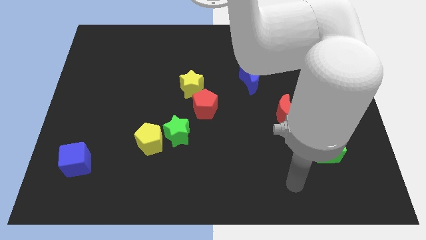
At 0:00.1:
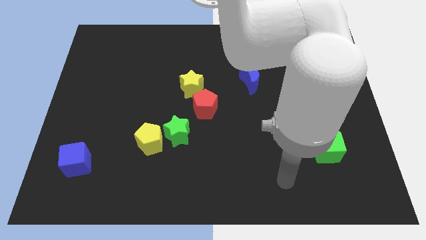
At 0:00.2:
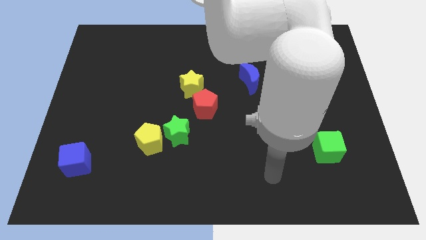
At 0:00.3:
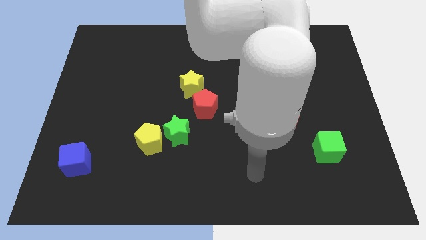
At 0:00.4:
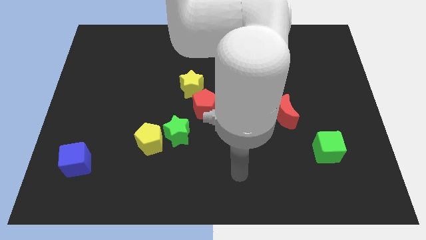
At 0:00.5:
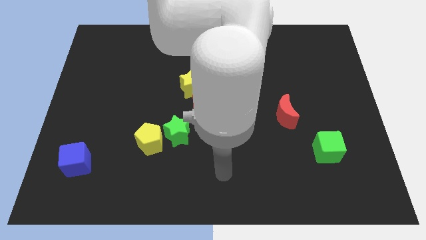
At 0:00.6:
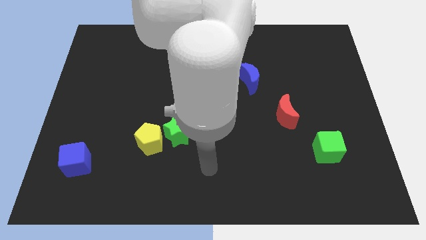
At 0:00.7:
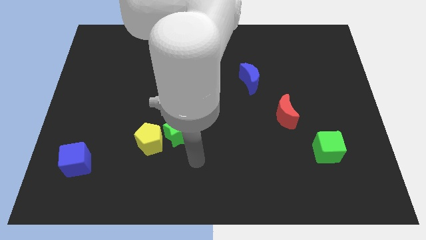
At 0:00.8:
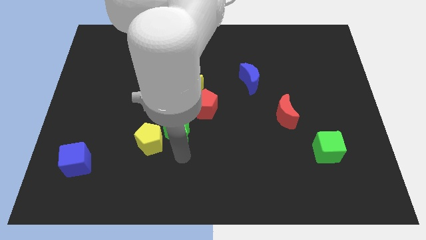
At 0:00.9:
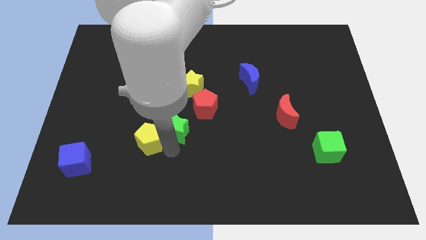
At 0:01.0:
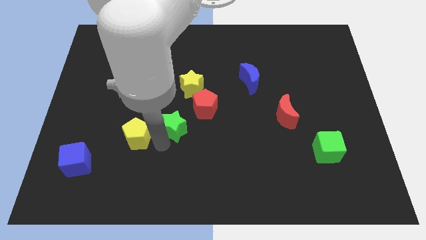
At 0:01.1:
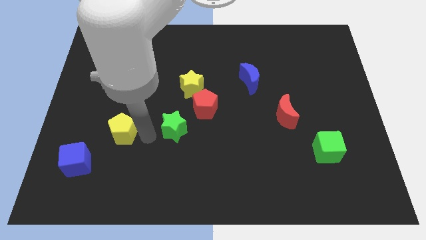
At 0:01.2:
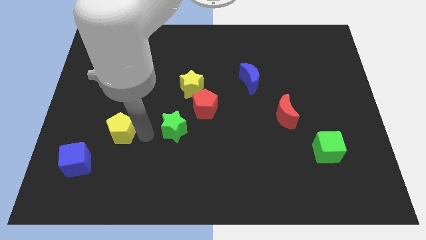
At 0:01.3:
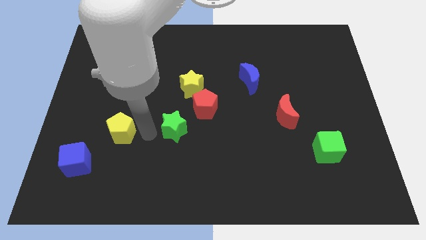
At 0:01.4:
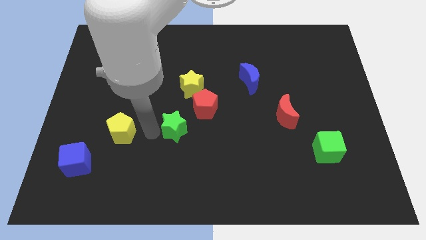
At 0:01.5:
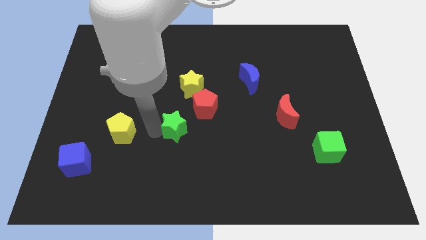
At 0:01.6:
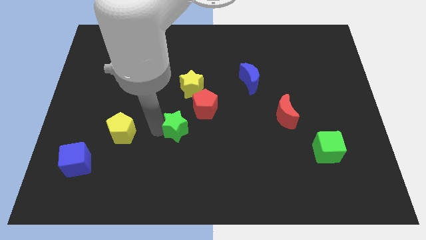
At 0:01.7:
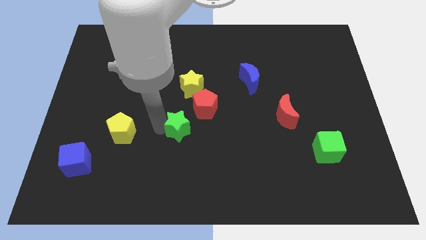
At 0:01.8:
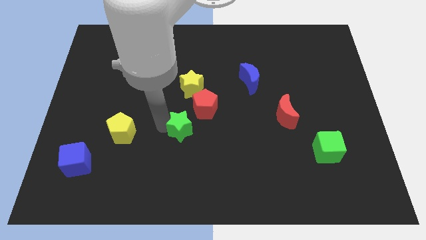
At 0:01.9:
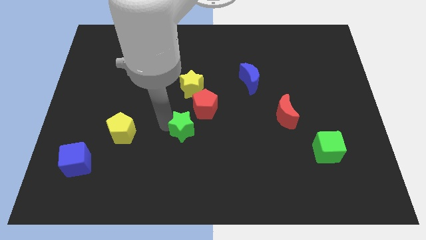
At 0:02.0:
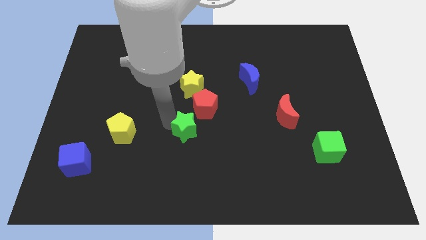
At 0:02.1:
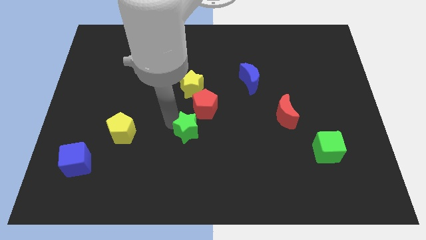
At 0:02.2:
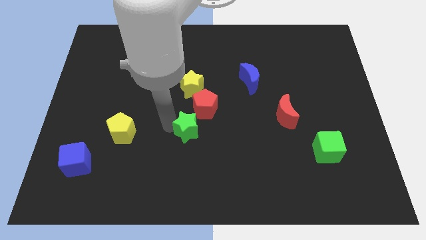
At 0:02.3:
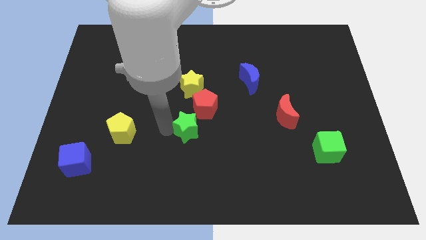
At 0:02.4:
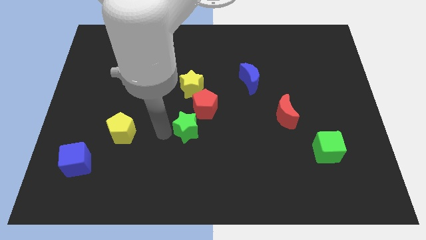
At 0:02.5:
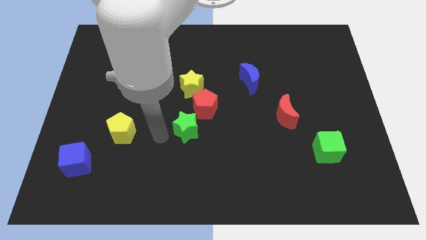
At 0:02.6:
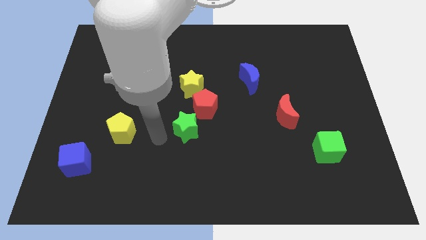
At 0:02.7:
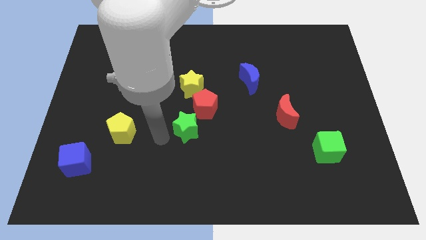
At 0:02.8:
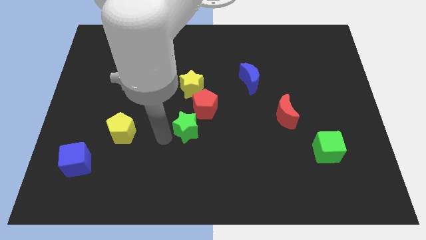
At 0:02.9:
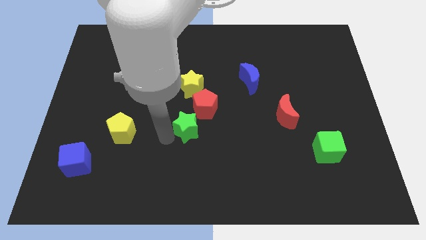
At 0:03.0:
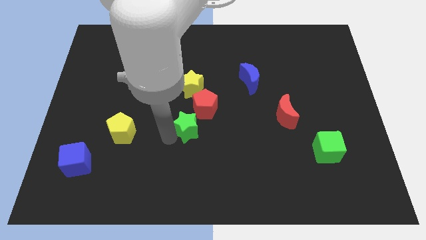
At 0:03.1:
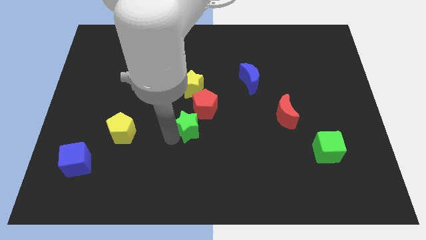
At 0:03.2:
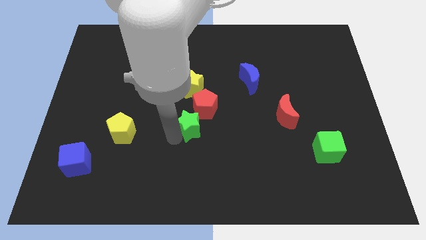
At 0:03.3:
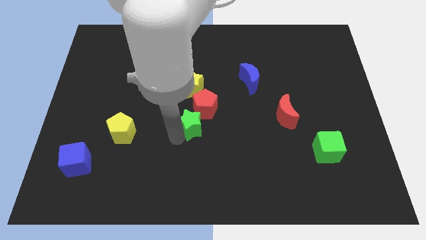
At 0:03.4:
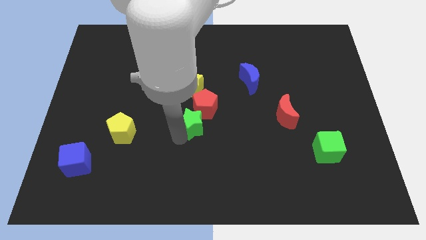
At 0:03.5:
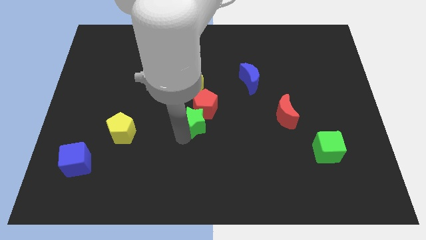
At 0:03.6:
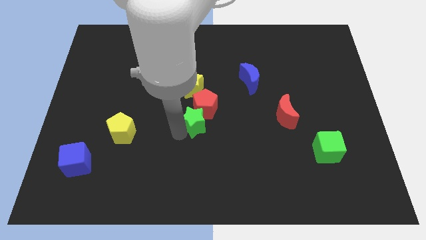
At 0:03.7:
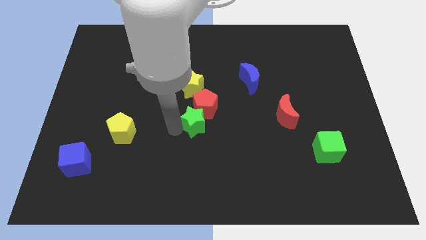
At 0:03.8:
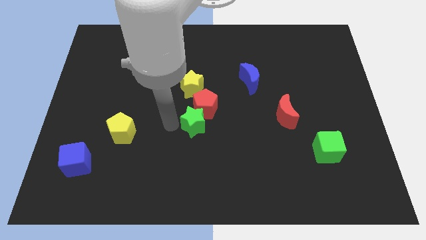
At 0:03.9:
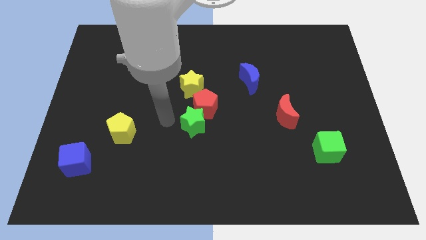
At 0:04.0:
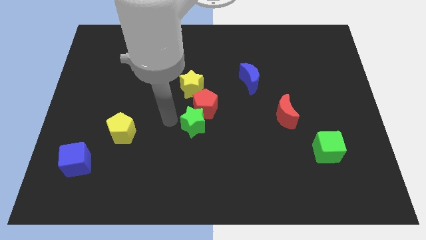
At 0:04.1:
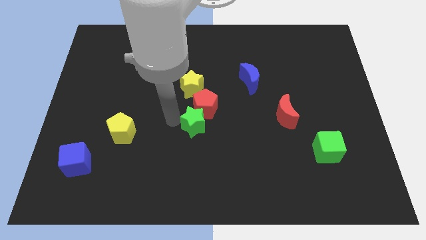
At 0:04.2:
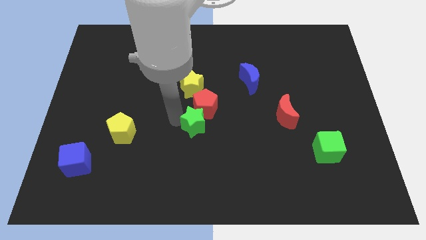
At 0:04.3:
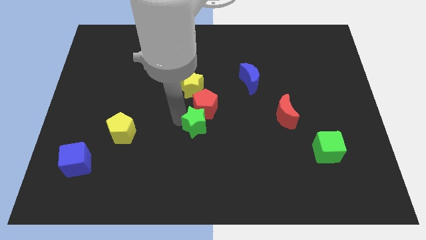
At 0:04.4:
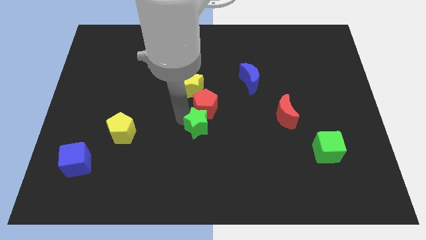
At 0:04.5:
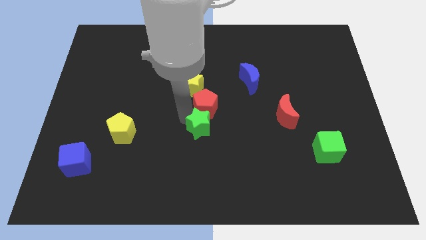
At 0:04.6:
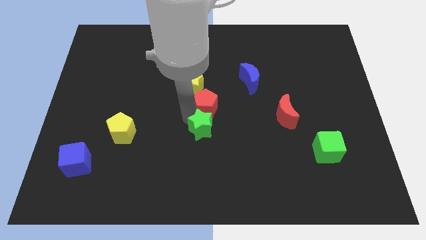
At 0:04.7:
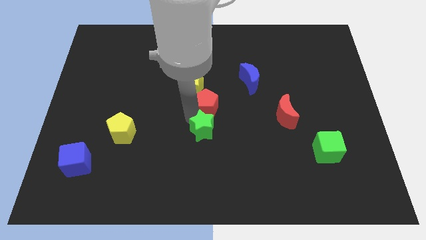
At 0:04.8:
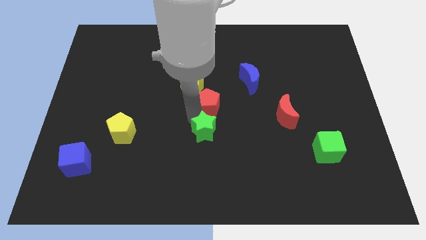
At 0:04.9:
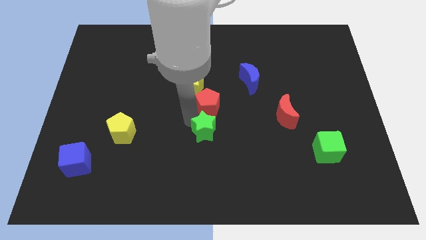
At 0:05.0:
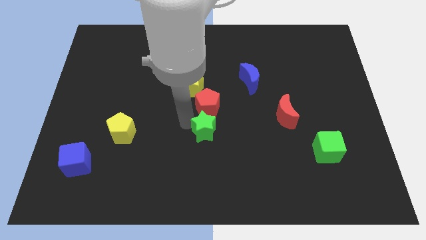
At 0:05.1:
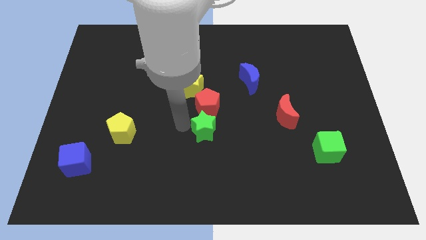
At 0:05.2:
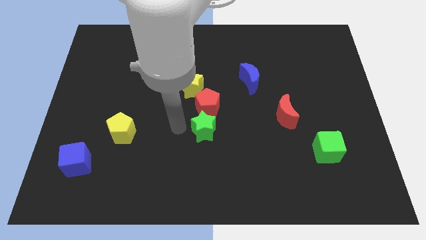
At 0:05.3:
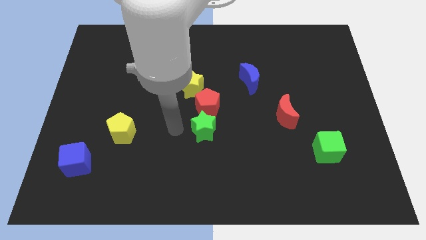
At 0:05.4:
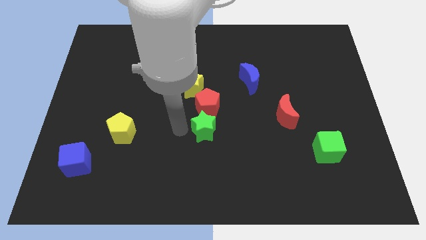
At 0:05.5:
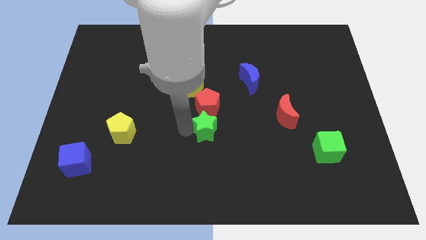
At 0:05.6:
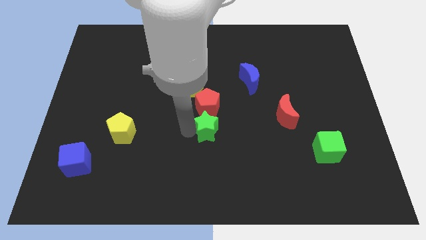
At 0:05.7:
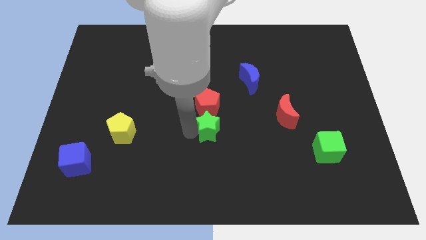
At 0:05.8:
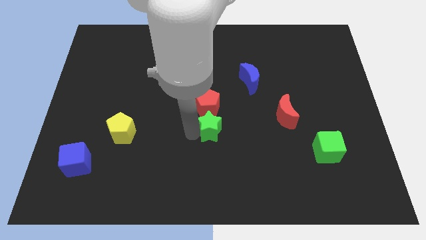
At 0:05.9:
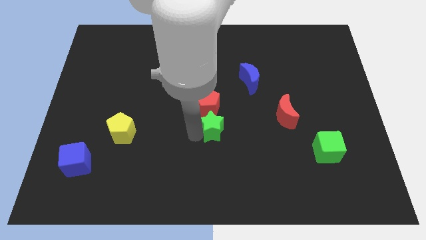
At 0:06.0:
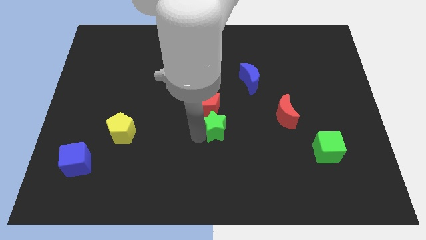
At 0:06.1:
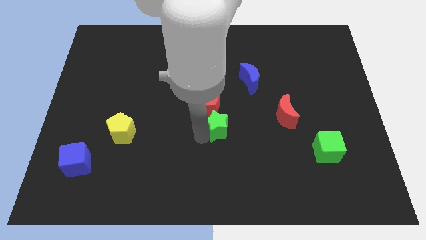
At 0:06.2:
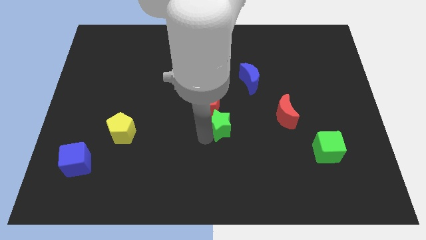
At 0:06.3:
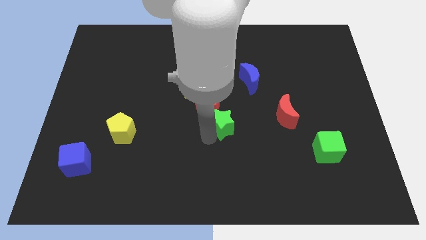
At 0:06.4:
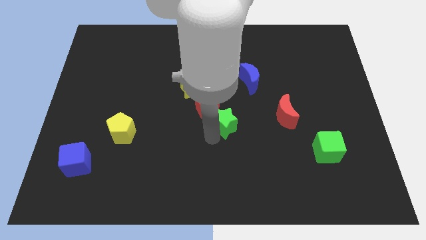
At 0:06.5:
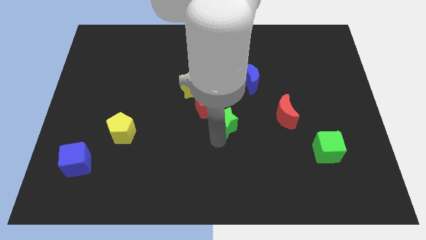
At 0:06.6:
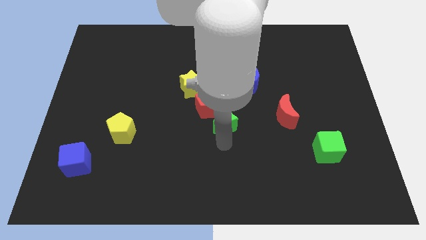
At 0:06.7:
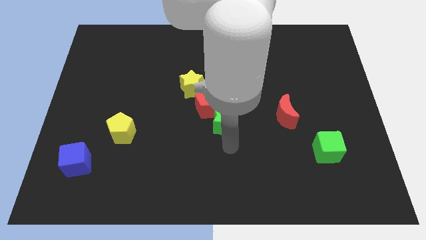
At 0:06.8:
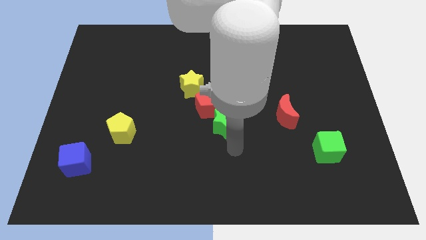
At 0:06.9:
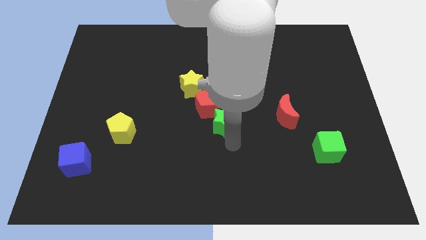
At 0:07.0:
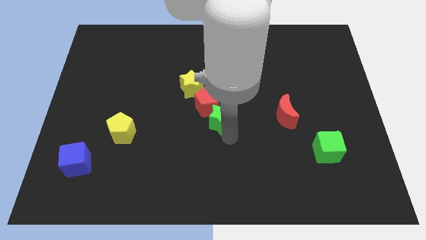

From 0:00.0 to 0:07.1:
push the green star diagonally down and to the right of the yellow star
